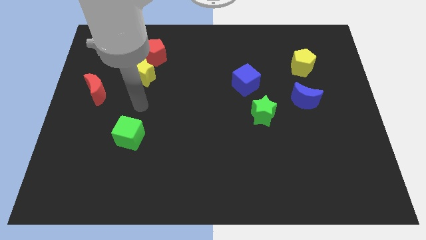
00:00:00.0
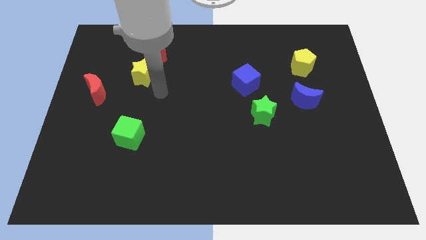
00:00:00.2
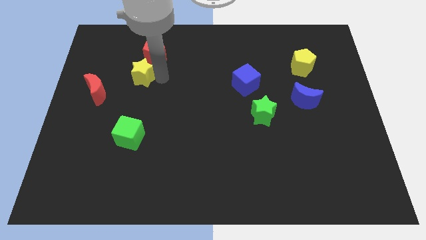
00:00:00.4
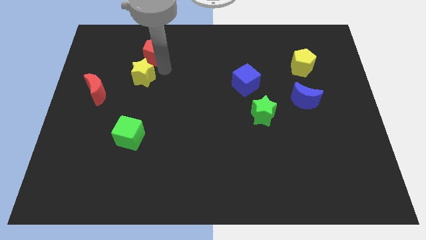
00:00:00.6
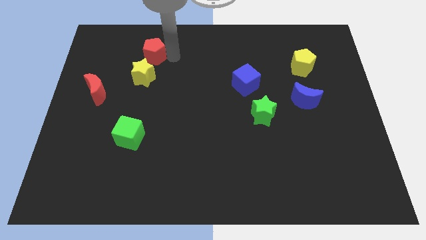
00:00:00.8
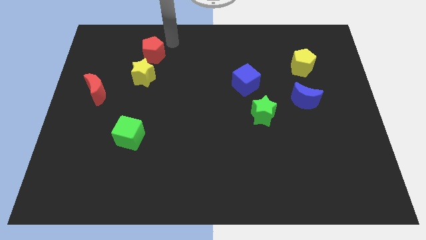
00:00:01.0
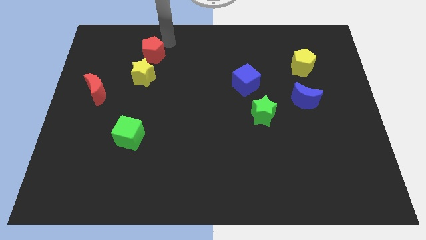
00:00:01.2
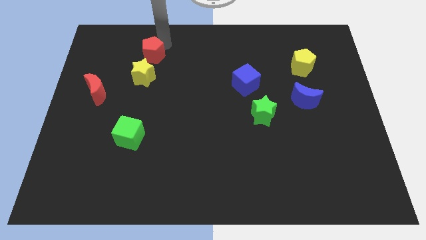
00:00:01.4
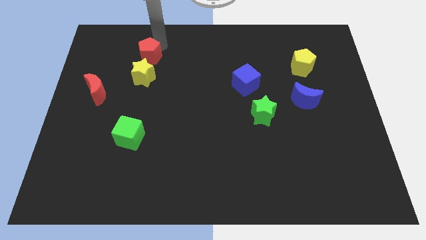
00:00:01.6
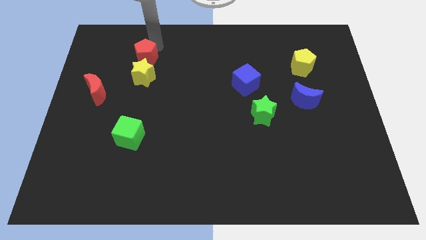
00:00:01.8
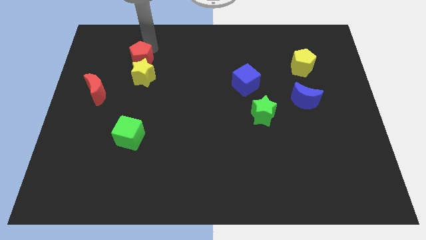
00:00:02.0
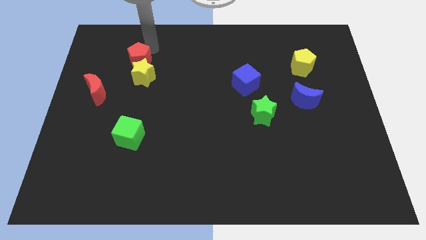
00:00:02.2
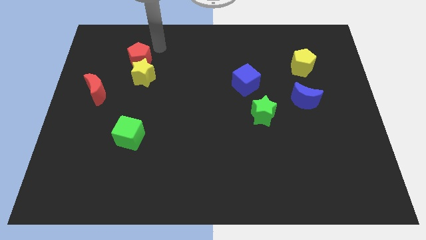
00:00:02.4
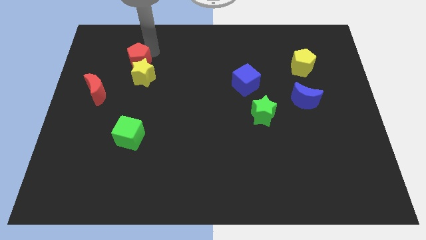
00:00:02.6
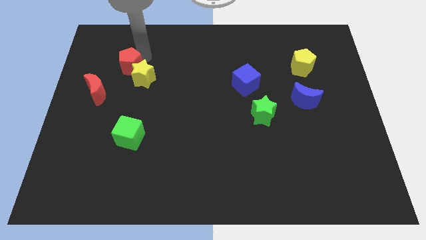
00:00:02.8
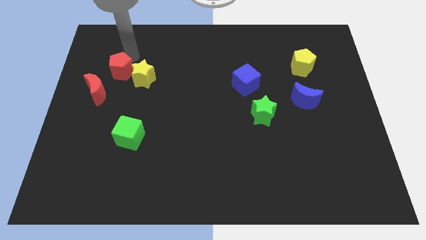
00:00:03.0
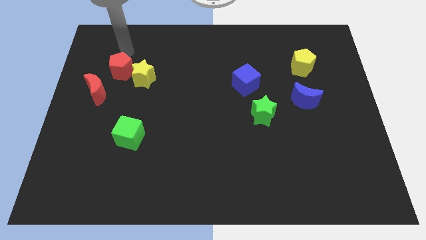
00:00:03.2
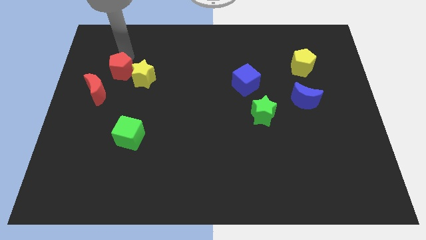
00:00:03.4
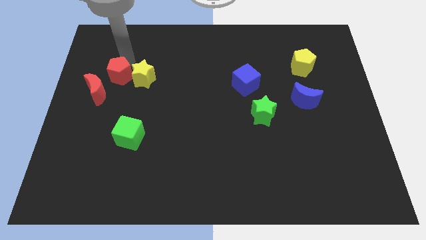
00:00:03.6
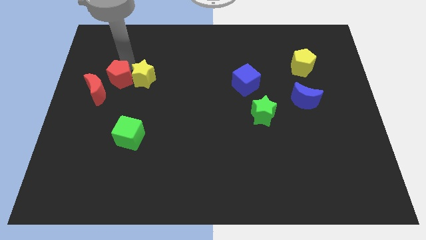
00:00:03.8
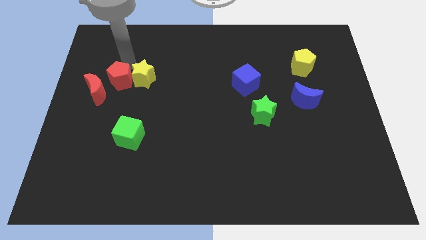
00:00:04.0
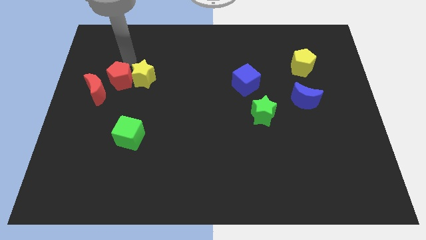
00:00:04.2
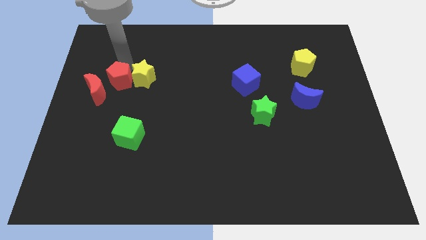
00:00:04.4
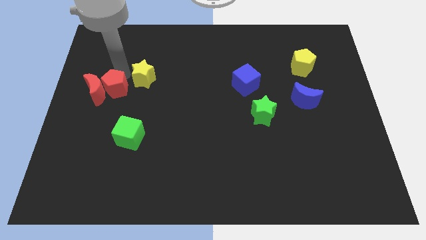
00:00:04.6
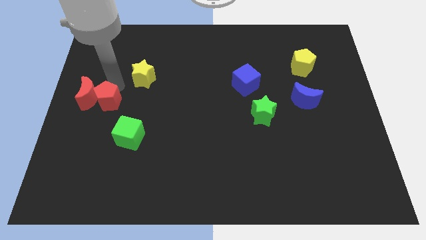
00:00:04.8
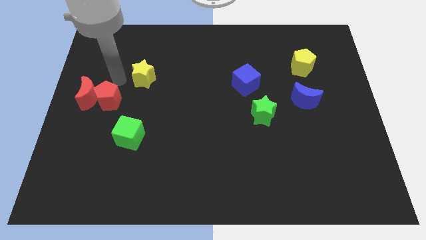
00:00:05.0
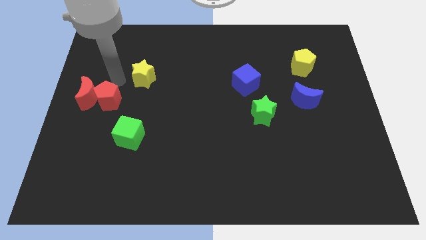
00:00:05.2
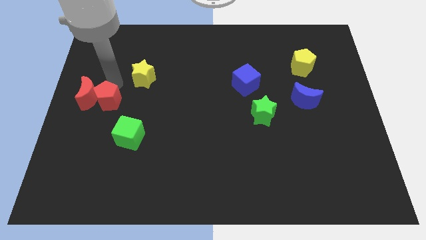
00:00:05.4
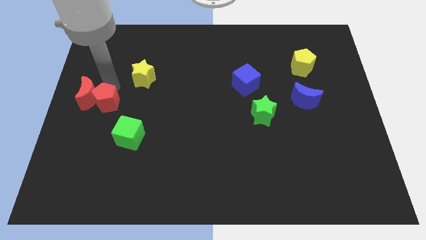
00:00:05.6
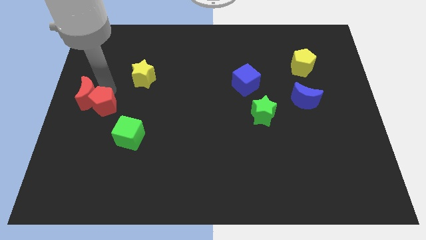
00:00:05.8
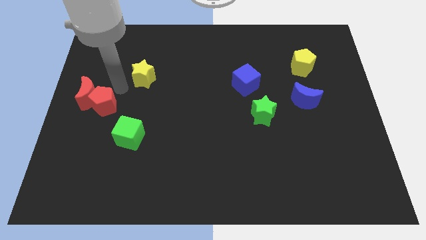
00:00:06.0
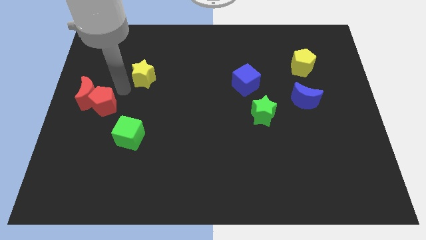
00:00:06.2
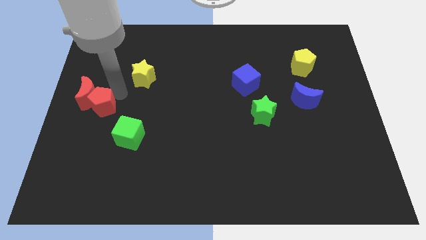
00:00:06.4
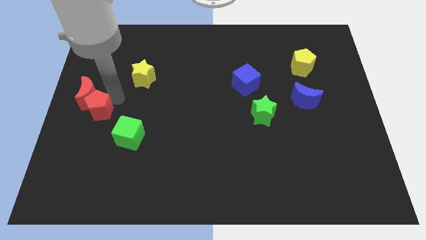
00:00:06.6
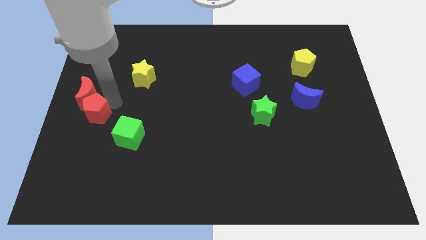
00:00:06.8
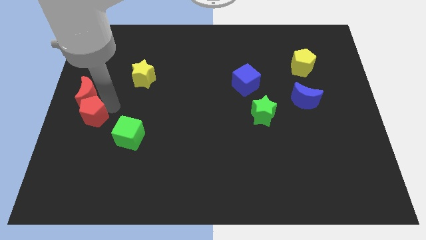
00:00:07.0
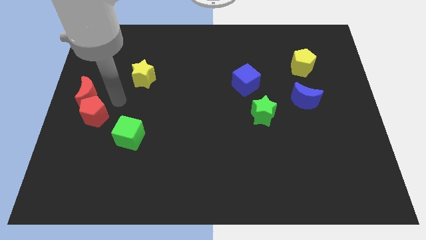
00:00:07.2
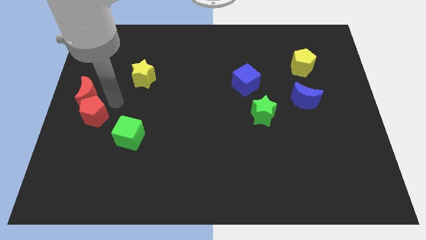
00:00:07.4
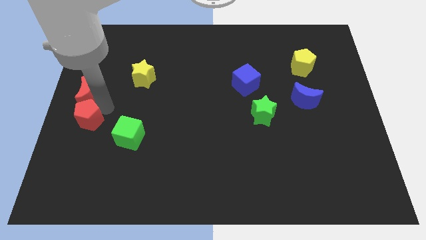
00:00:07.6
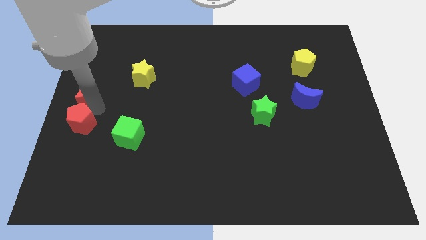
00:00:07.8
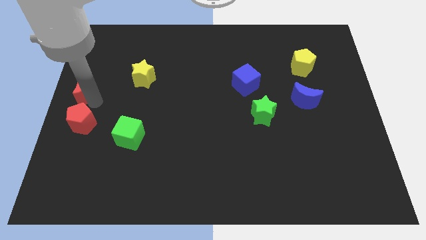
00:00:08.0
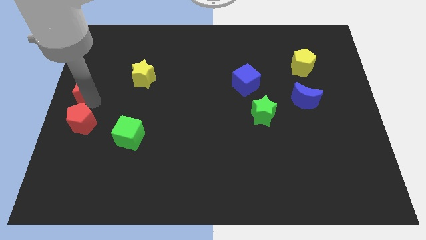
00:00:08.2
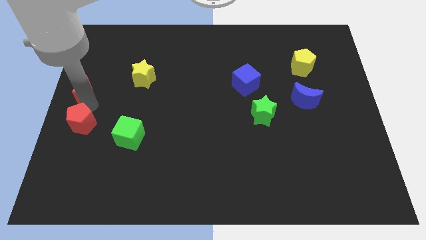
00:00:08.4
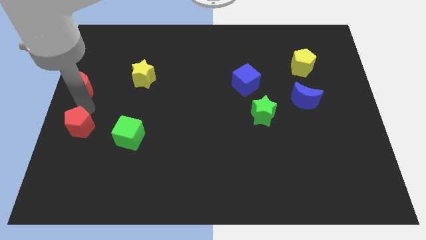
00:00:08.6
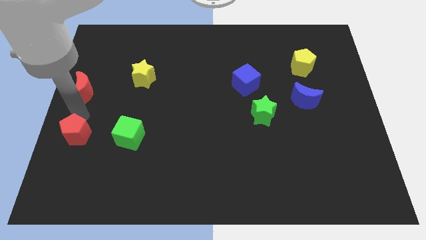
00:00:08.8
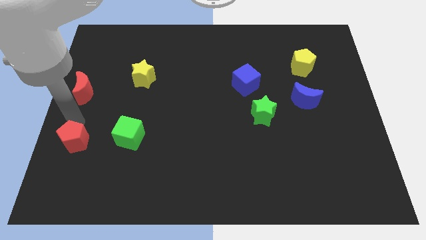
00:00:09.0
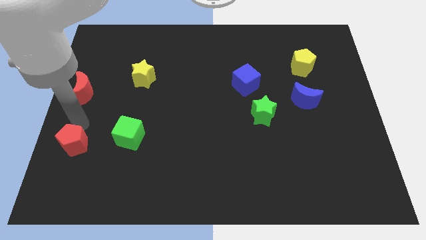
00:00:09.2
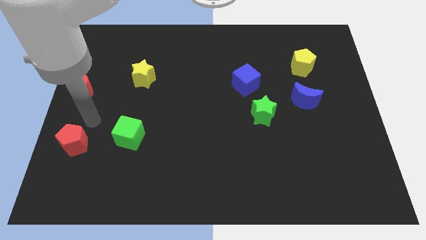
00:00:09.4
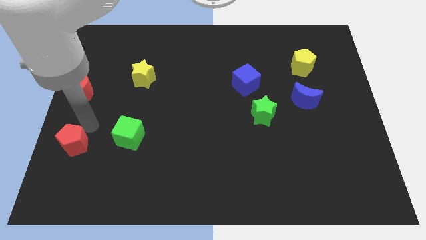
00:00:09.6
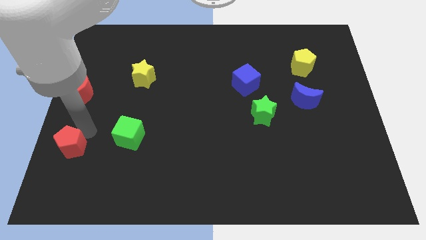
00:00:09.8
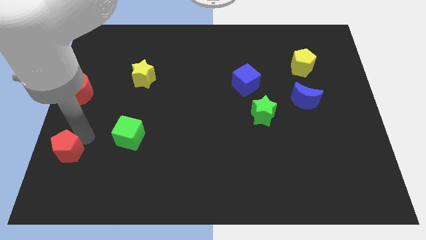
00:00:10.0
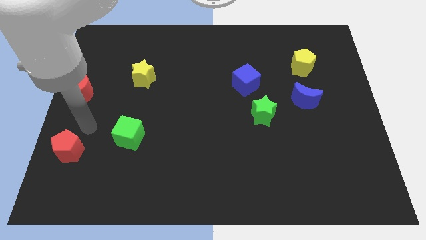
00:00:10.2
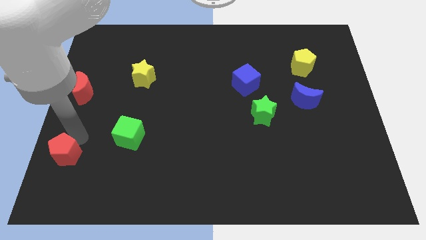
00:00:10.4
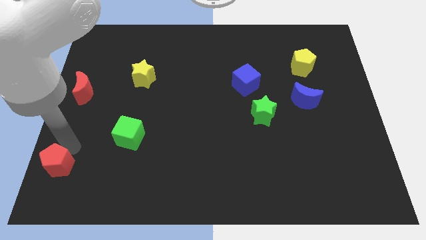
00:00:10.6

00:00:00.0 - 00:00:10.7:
slide the red pentagon to the bottom left

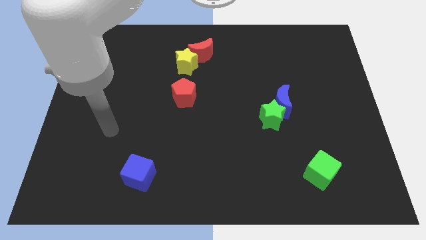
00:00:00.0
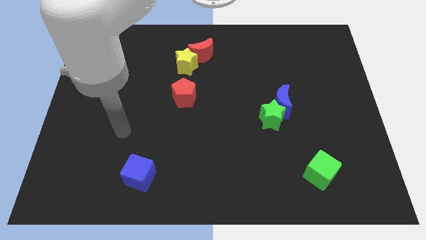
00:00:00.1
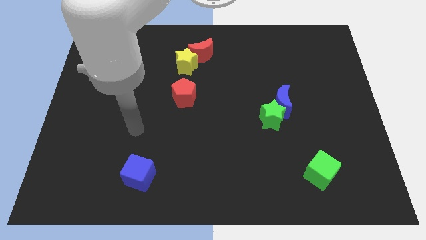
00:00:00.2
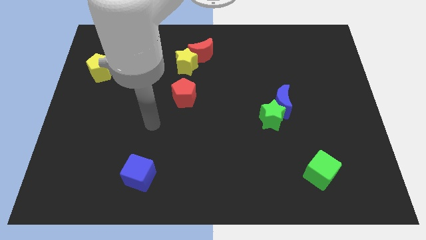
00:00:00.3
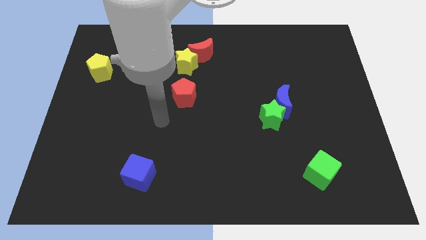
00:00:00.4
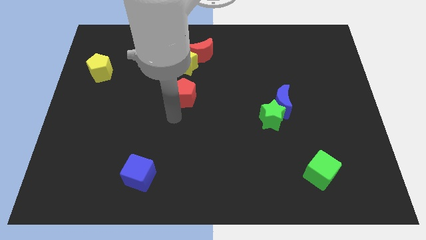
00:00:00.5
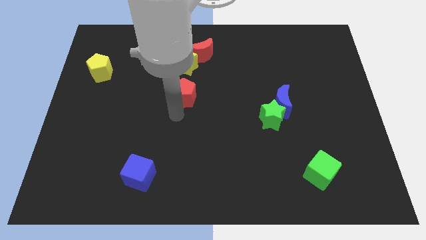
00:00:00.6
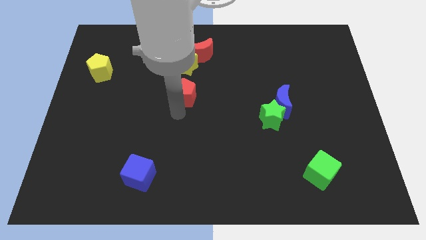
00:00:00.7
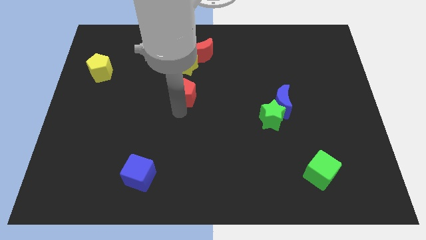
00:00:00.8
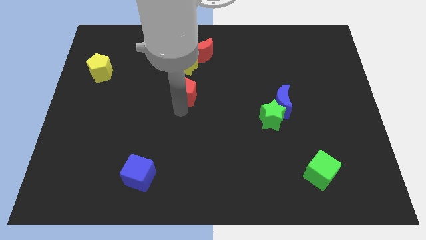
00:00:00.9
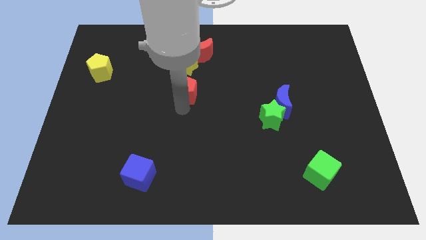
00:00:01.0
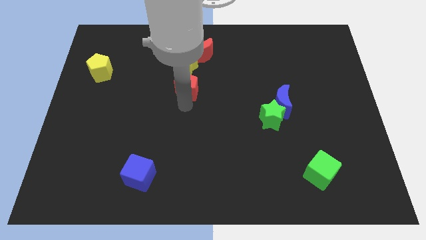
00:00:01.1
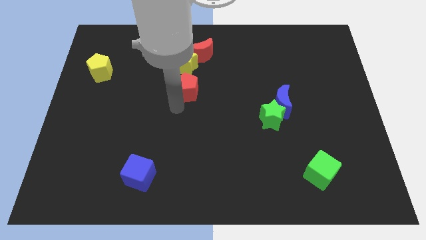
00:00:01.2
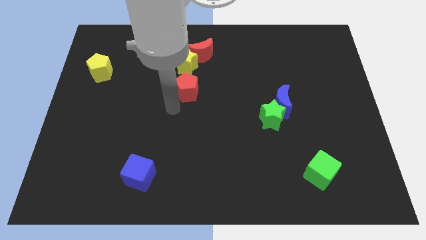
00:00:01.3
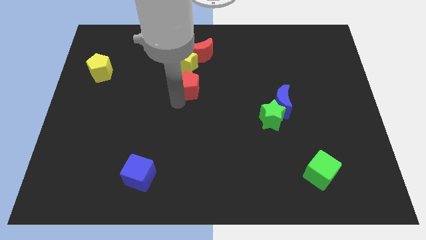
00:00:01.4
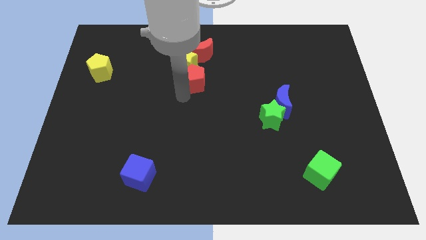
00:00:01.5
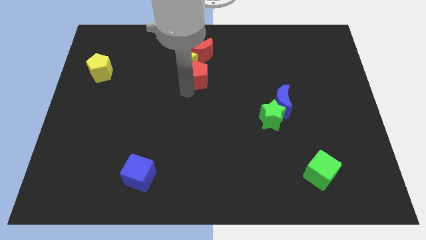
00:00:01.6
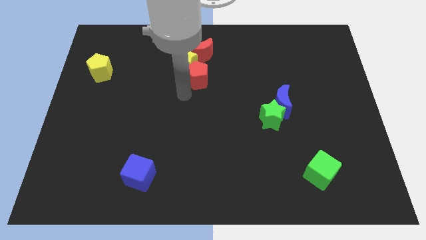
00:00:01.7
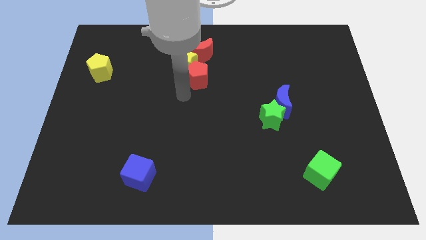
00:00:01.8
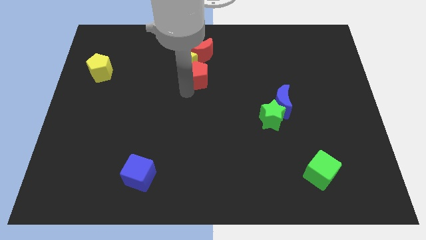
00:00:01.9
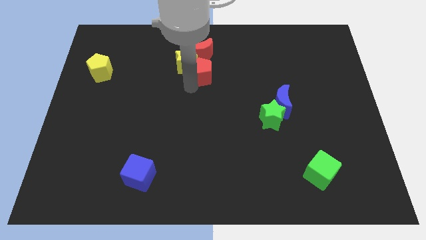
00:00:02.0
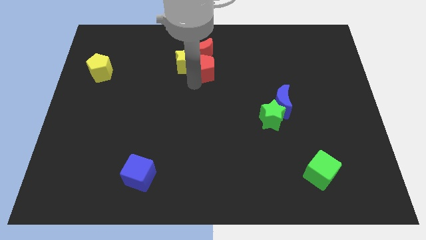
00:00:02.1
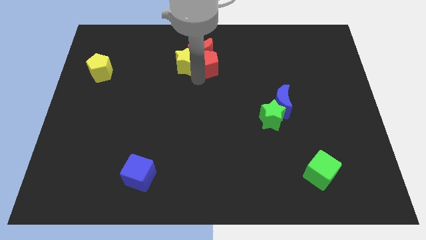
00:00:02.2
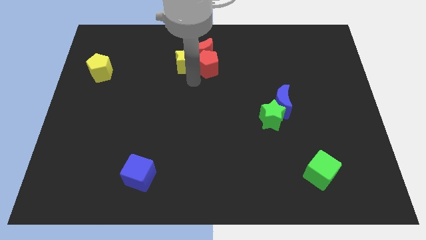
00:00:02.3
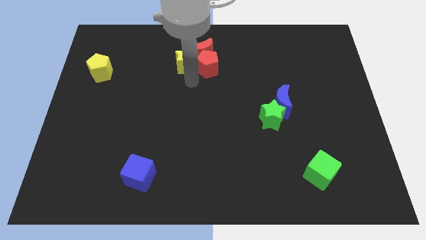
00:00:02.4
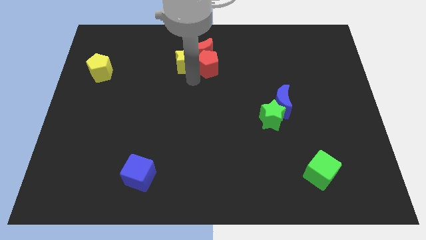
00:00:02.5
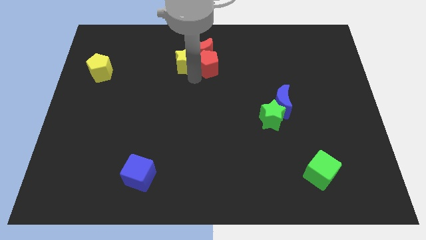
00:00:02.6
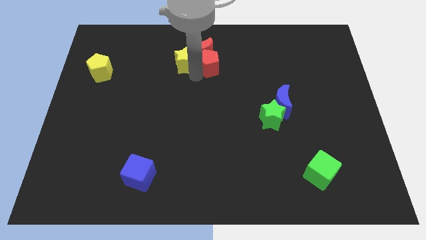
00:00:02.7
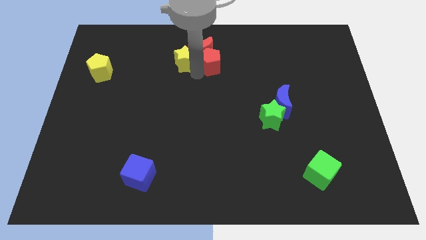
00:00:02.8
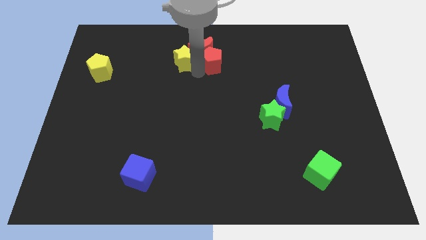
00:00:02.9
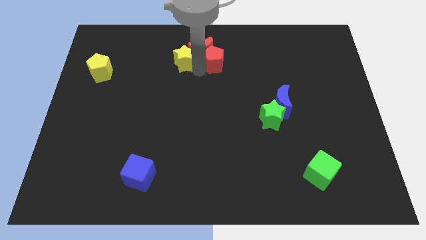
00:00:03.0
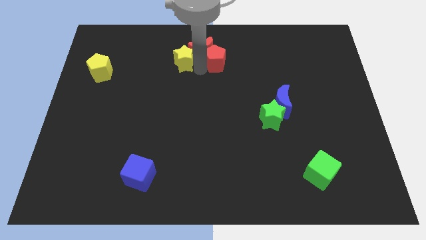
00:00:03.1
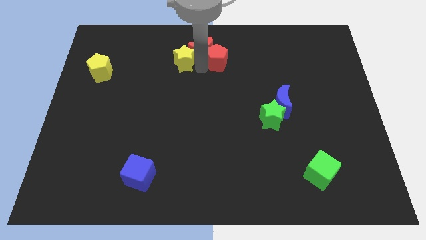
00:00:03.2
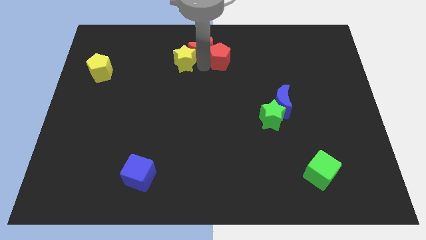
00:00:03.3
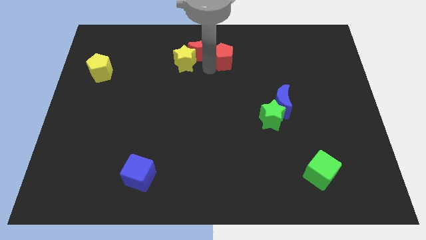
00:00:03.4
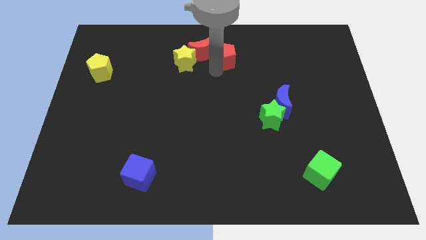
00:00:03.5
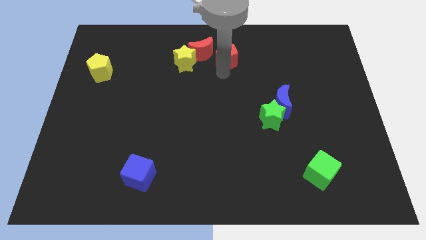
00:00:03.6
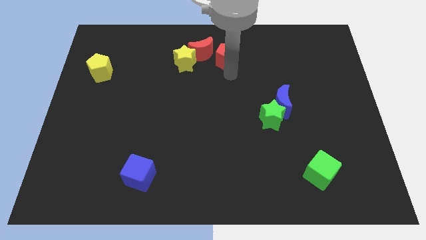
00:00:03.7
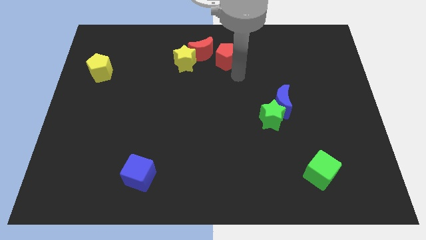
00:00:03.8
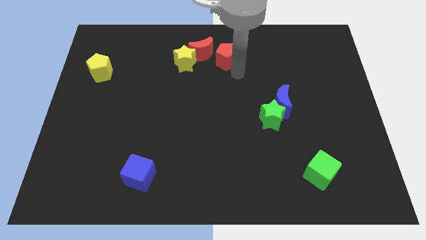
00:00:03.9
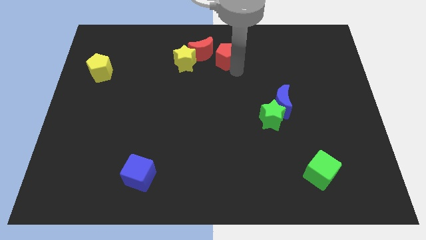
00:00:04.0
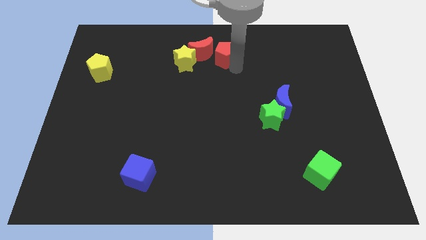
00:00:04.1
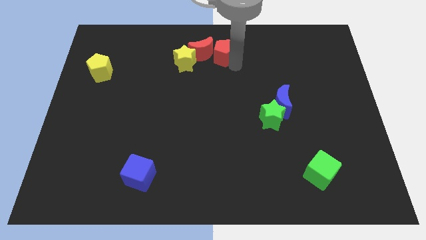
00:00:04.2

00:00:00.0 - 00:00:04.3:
put the red pentagon to the towards your base
